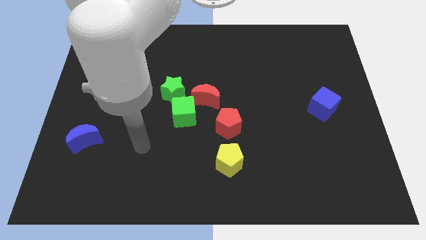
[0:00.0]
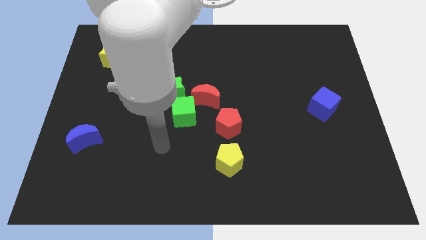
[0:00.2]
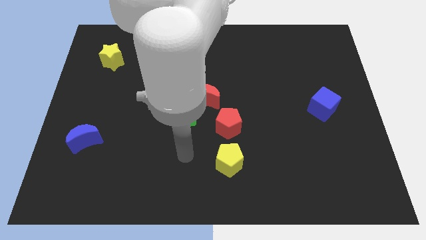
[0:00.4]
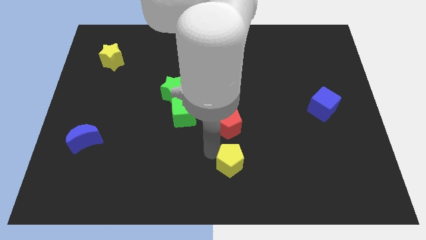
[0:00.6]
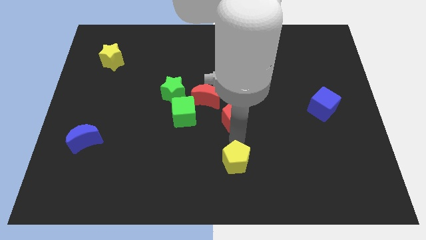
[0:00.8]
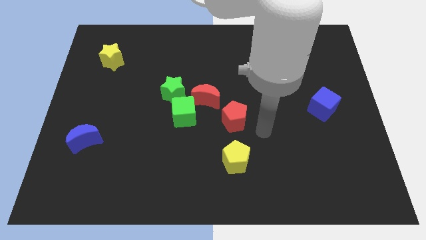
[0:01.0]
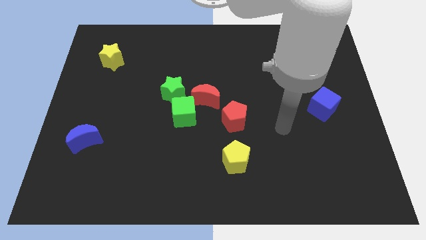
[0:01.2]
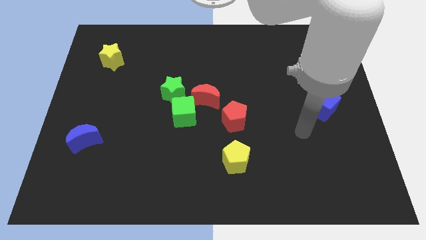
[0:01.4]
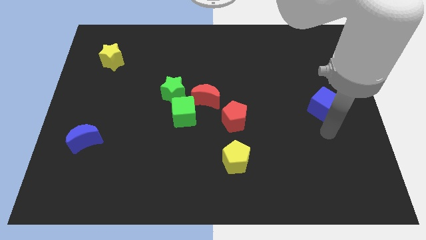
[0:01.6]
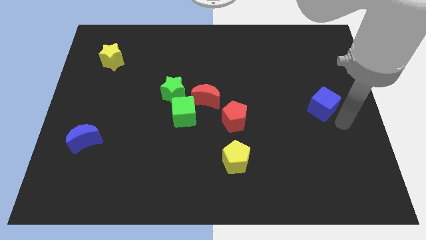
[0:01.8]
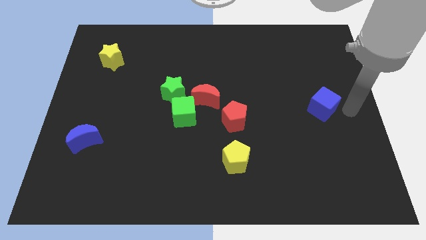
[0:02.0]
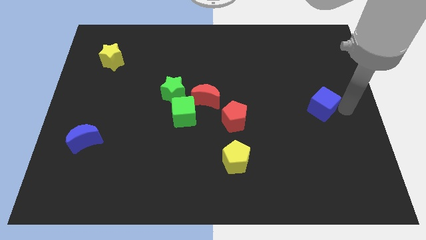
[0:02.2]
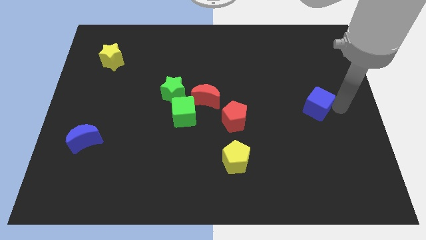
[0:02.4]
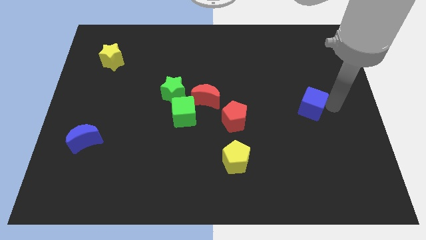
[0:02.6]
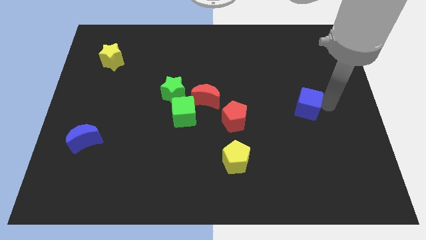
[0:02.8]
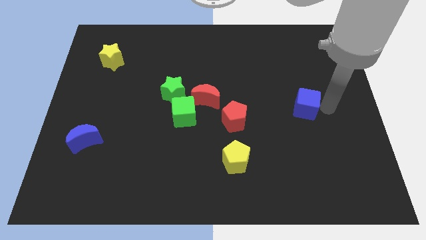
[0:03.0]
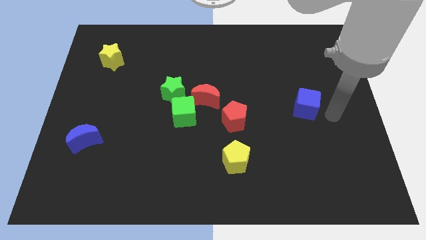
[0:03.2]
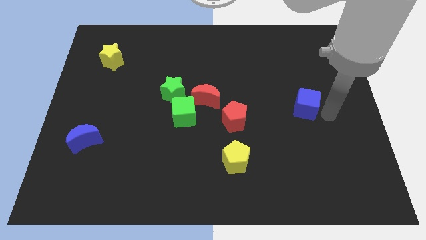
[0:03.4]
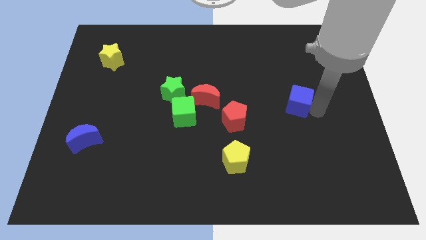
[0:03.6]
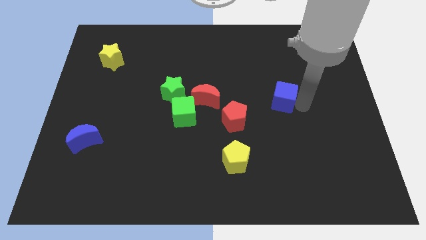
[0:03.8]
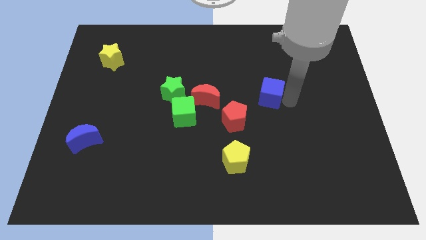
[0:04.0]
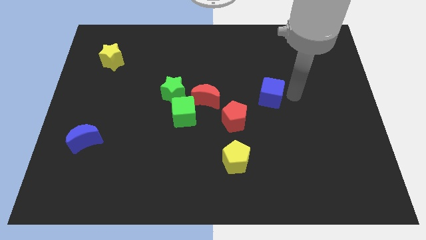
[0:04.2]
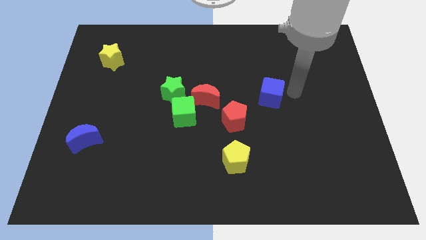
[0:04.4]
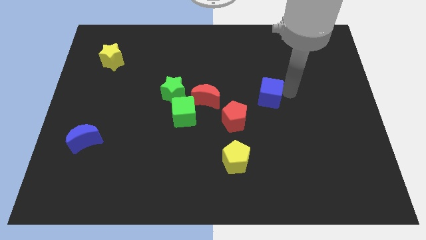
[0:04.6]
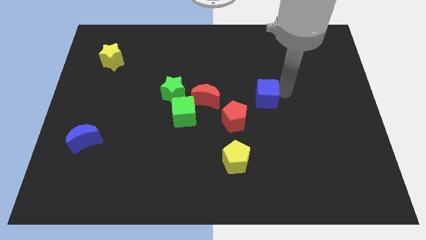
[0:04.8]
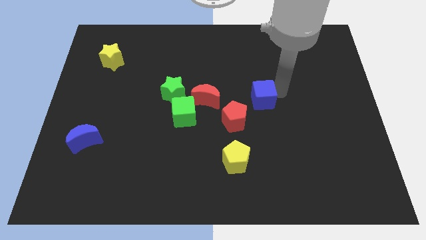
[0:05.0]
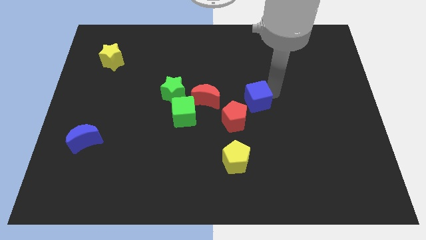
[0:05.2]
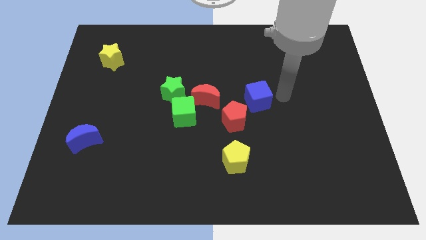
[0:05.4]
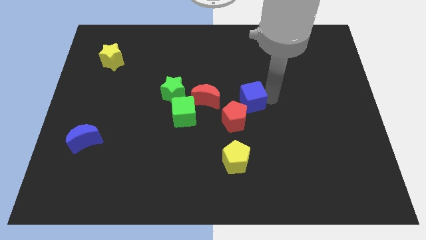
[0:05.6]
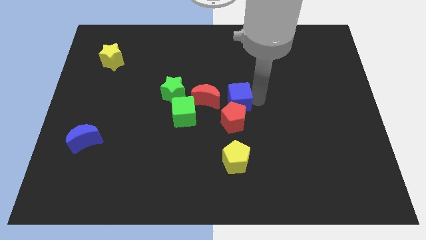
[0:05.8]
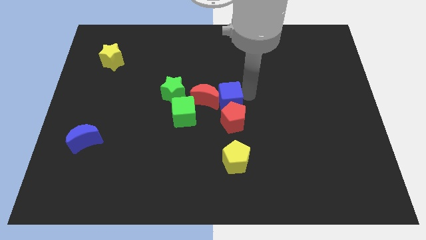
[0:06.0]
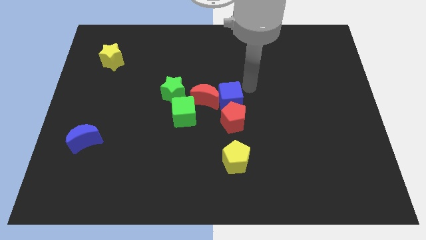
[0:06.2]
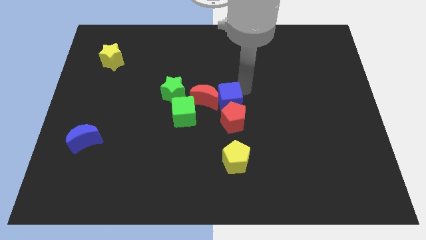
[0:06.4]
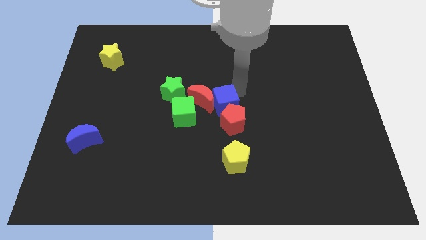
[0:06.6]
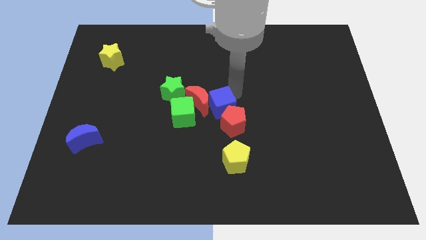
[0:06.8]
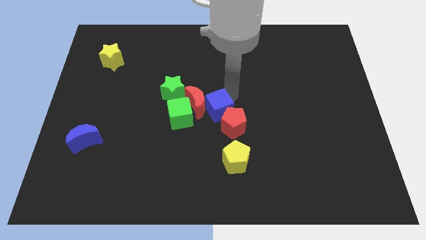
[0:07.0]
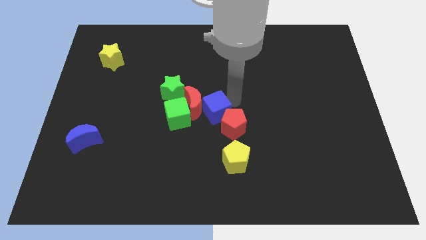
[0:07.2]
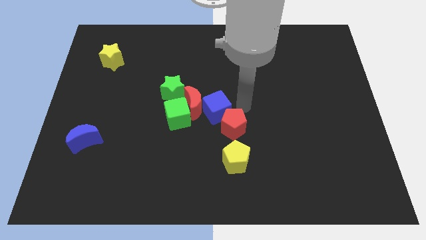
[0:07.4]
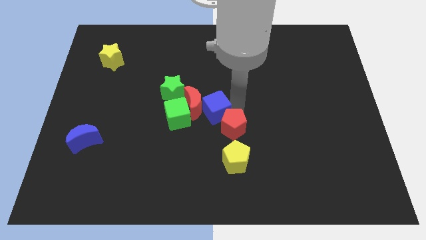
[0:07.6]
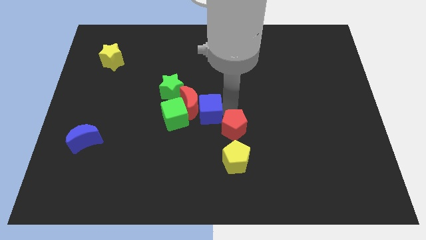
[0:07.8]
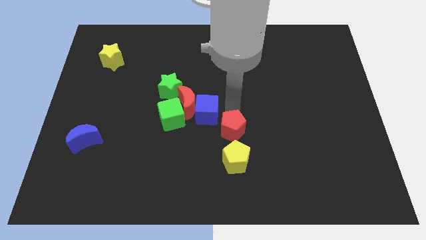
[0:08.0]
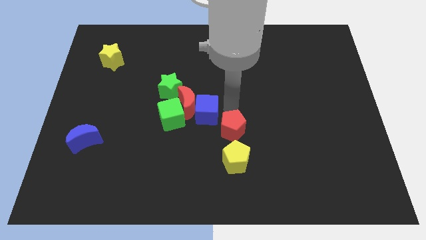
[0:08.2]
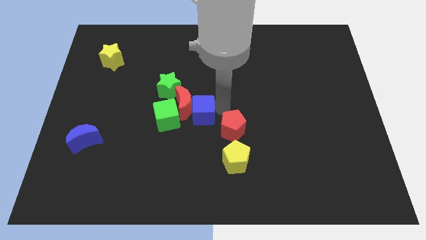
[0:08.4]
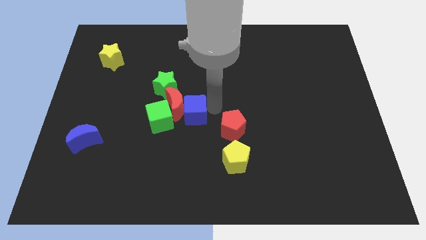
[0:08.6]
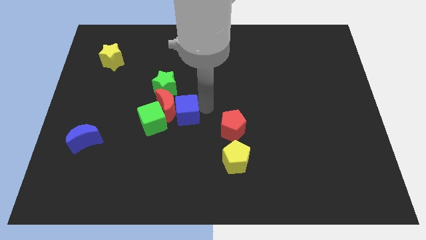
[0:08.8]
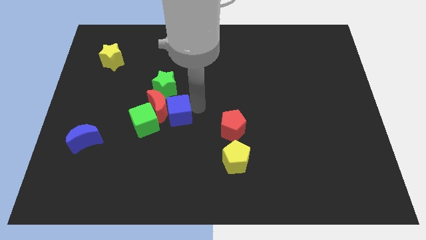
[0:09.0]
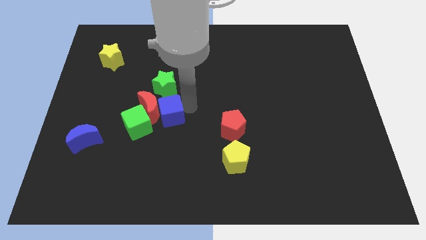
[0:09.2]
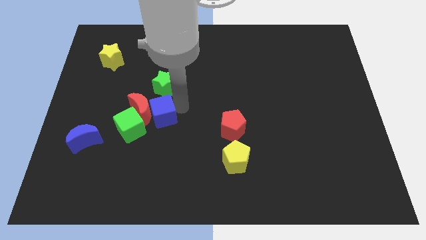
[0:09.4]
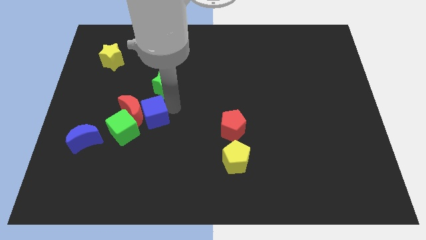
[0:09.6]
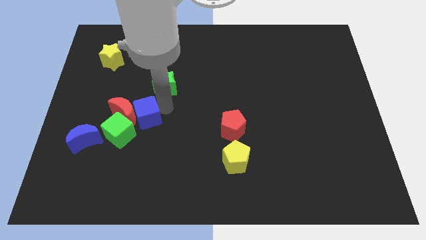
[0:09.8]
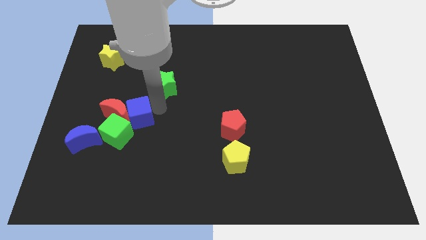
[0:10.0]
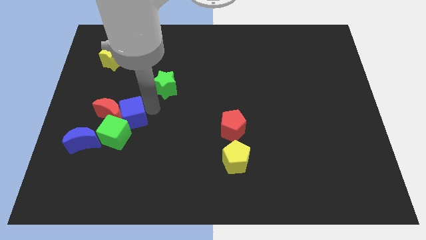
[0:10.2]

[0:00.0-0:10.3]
push the blue cube towards the green cube

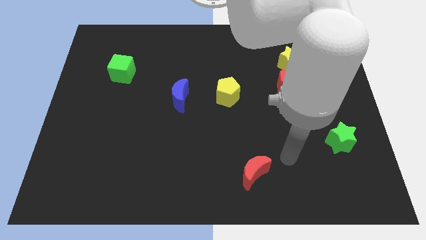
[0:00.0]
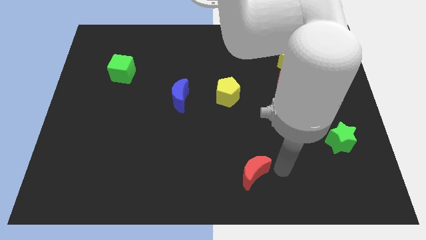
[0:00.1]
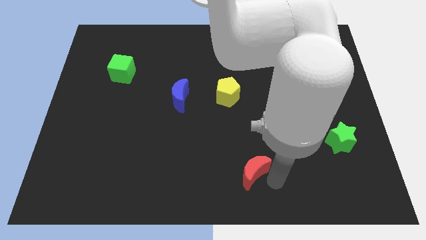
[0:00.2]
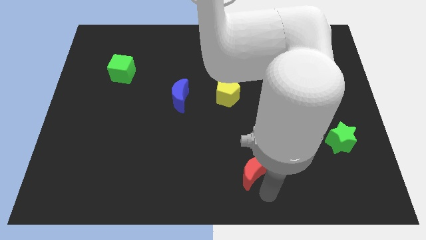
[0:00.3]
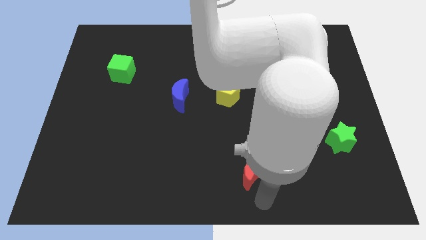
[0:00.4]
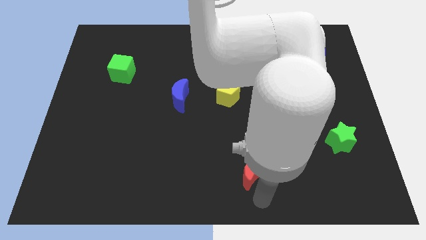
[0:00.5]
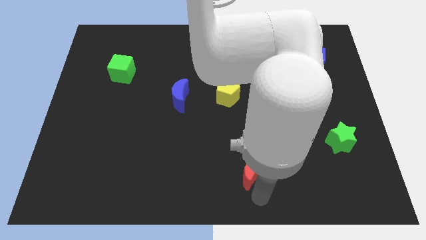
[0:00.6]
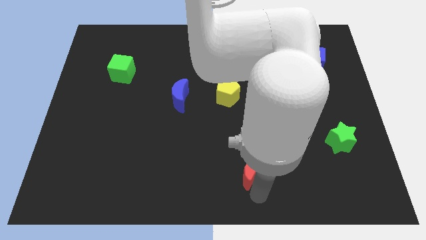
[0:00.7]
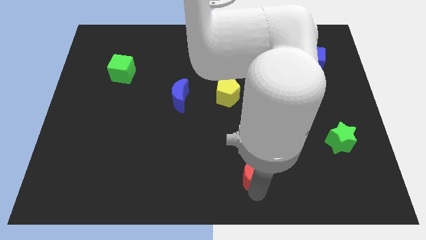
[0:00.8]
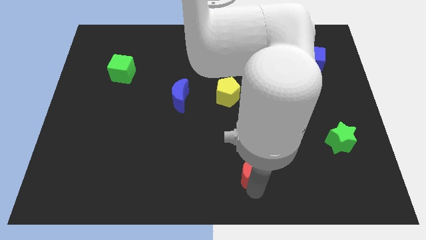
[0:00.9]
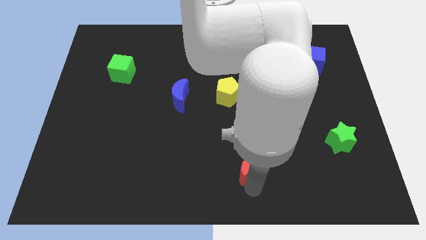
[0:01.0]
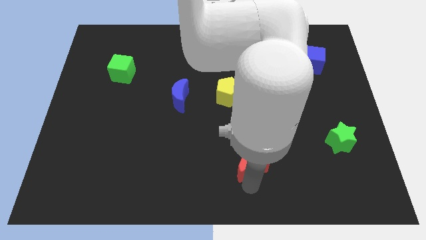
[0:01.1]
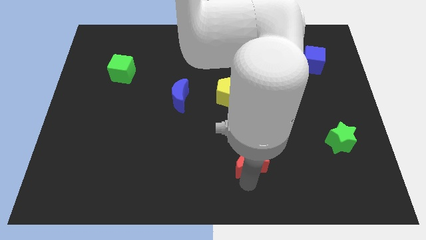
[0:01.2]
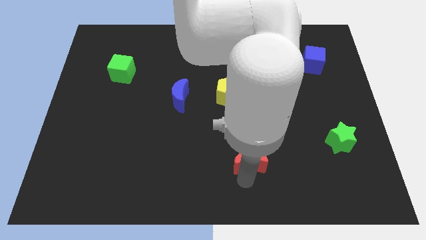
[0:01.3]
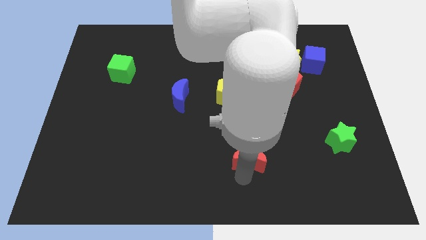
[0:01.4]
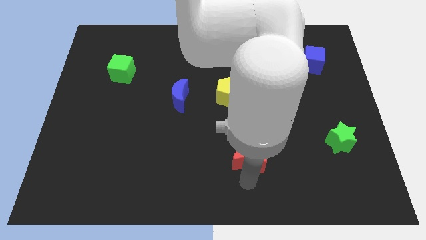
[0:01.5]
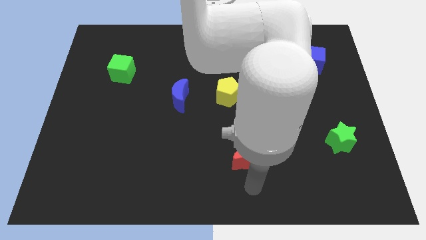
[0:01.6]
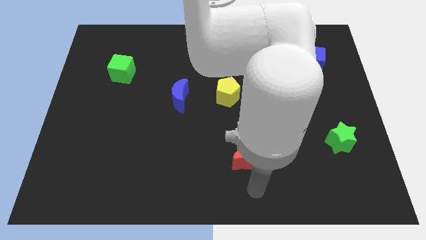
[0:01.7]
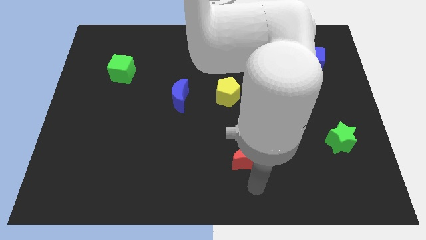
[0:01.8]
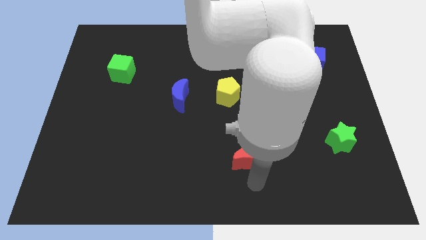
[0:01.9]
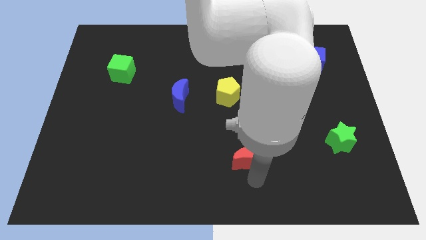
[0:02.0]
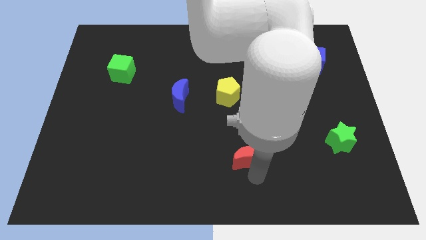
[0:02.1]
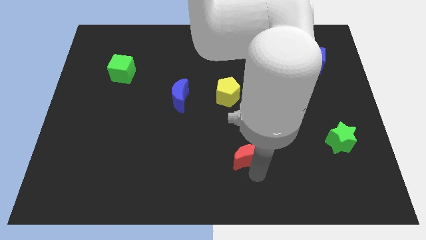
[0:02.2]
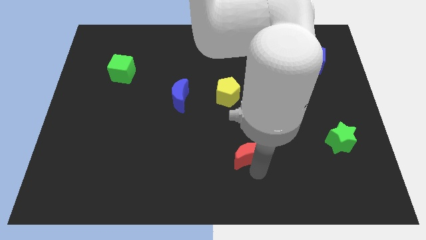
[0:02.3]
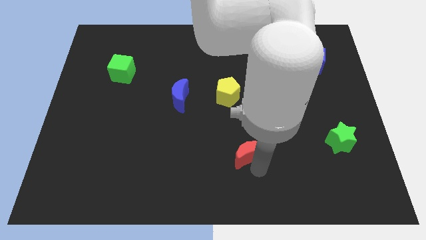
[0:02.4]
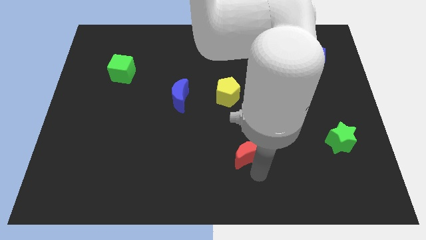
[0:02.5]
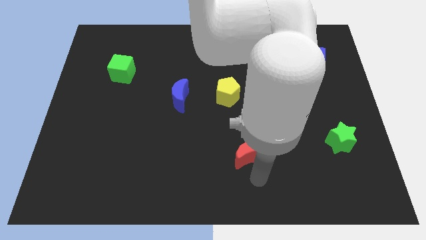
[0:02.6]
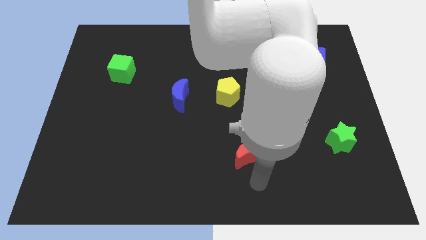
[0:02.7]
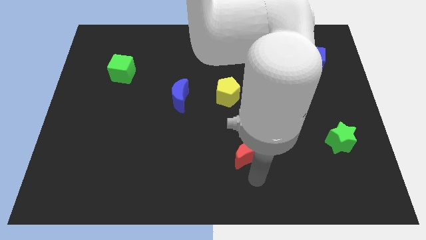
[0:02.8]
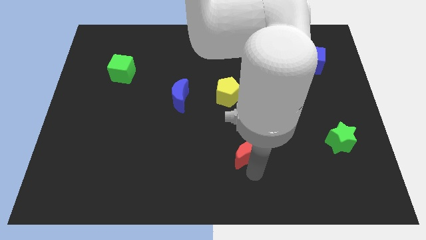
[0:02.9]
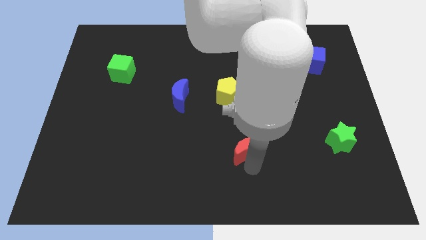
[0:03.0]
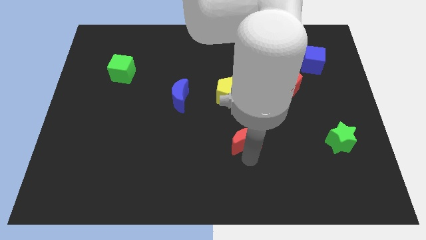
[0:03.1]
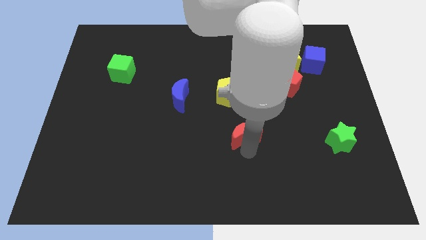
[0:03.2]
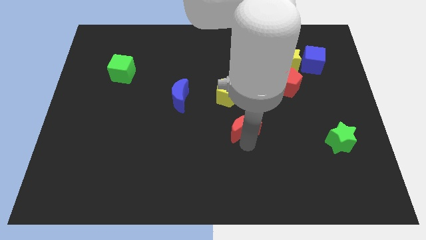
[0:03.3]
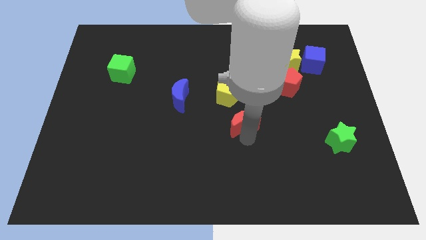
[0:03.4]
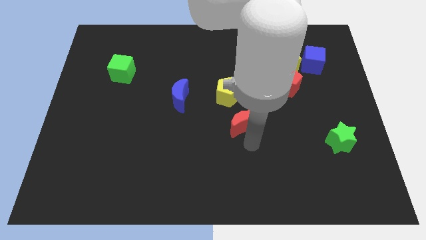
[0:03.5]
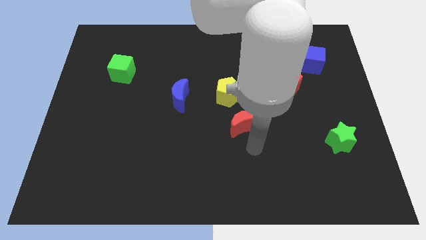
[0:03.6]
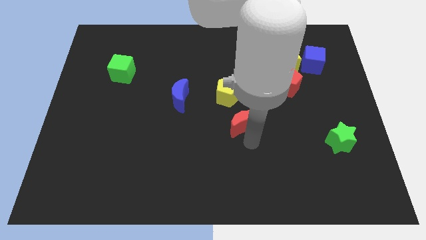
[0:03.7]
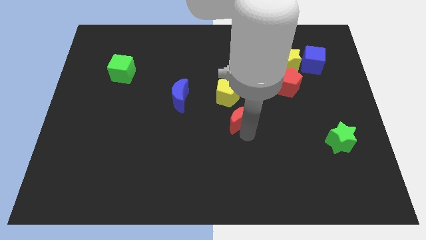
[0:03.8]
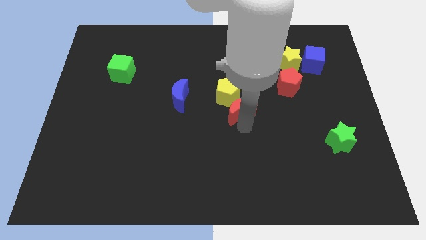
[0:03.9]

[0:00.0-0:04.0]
put the red moon towards the yellow pentagon
